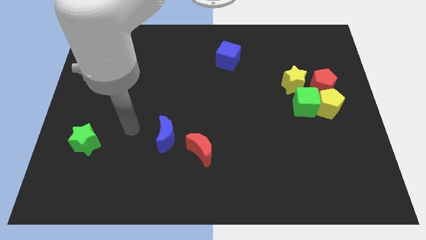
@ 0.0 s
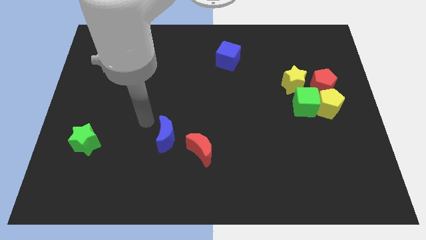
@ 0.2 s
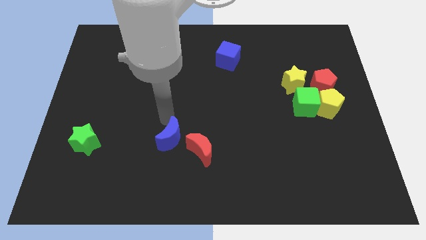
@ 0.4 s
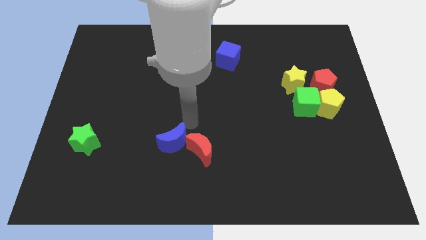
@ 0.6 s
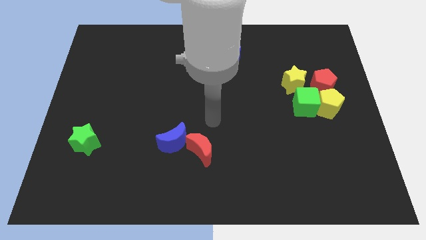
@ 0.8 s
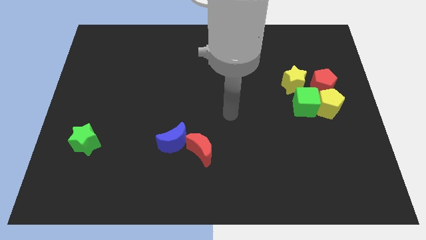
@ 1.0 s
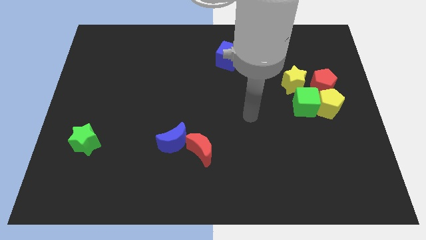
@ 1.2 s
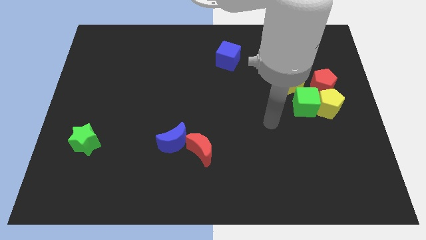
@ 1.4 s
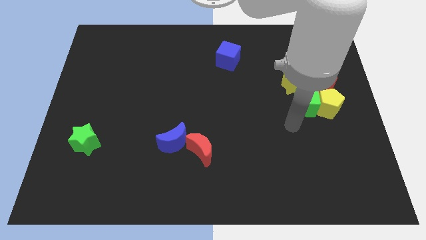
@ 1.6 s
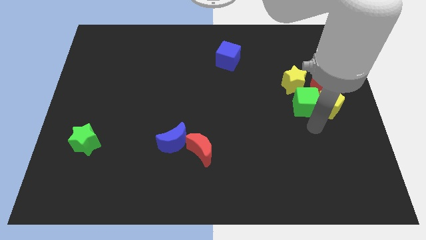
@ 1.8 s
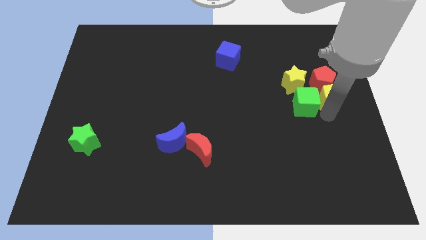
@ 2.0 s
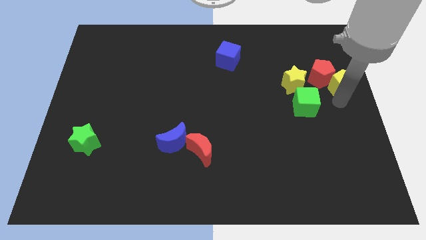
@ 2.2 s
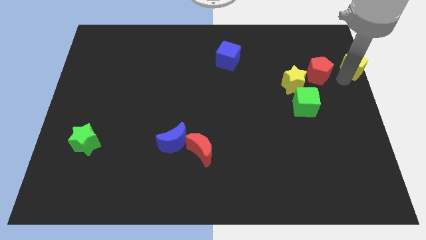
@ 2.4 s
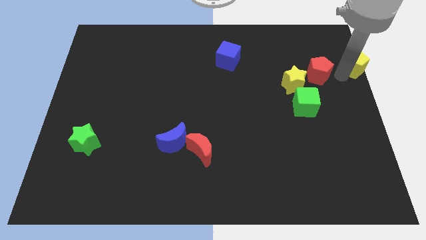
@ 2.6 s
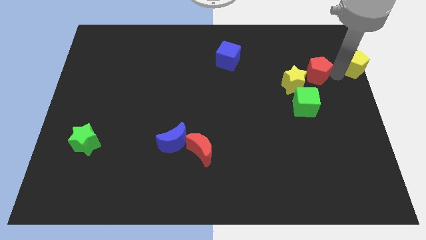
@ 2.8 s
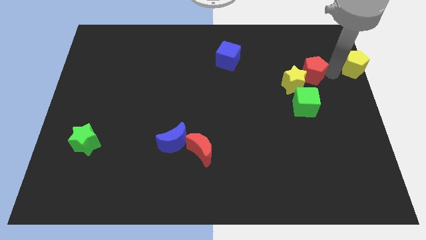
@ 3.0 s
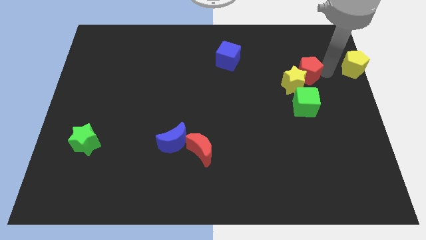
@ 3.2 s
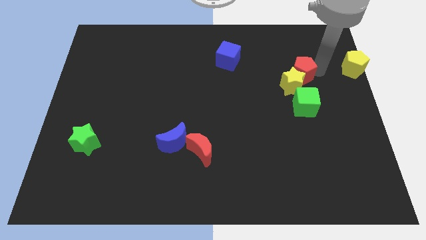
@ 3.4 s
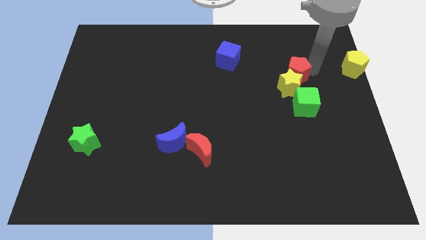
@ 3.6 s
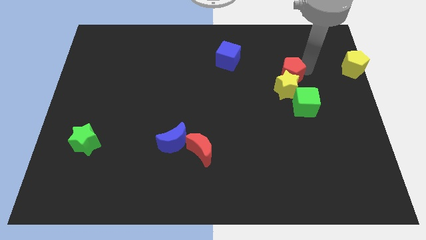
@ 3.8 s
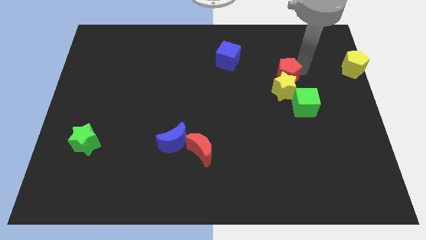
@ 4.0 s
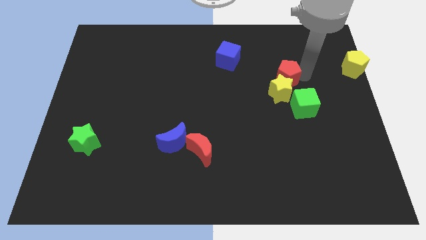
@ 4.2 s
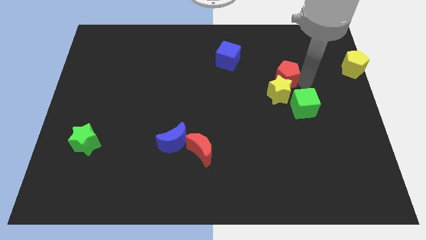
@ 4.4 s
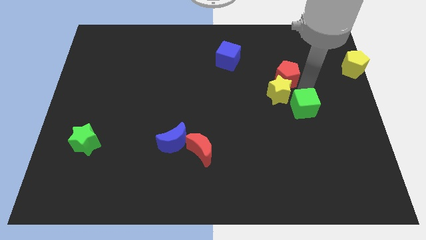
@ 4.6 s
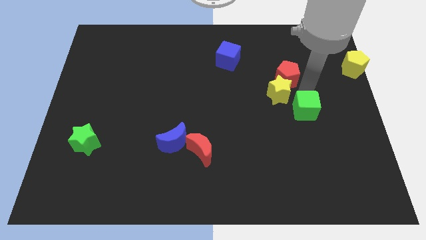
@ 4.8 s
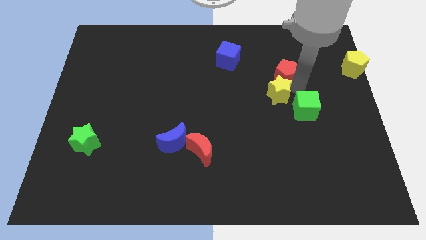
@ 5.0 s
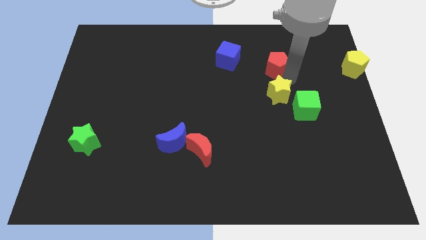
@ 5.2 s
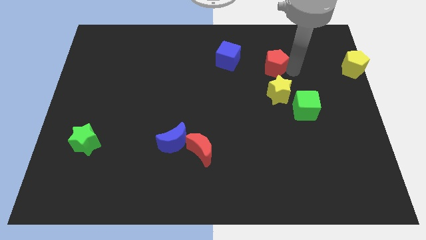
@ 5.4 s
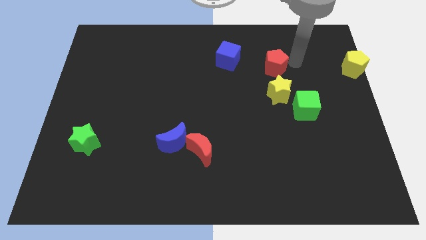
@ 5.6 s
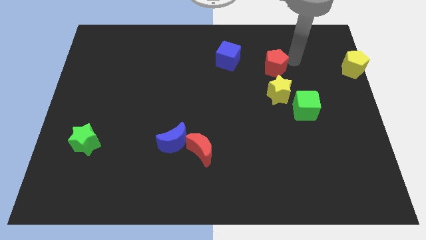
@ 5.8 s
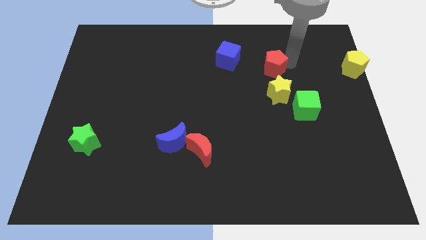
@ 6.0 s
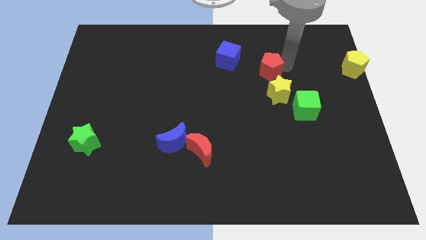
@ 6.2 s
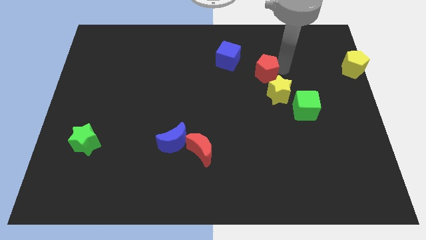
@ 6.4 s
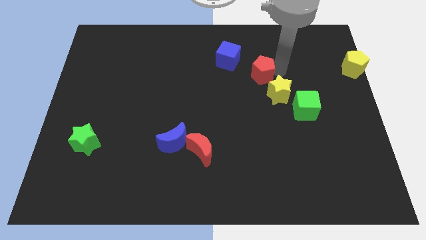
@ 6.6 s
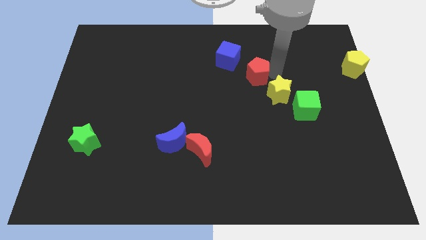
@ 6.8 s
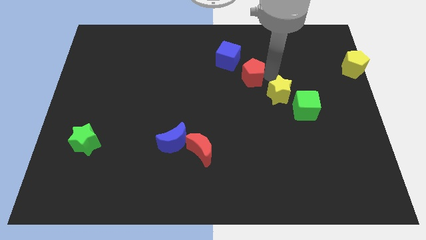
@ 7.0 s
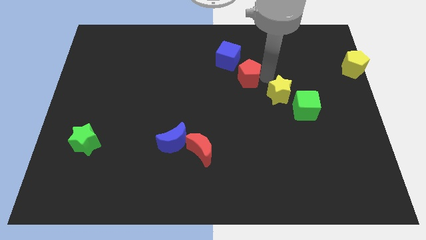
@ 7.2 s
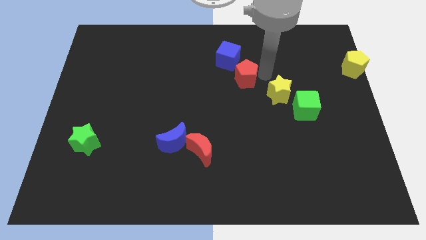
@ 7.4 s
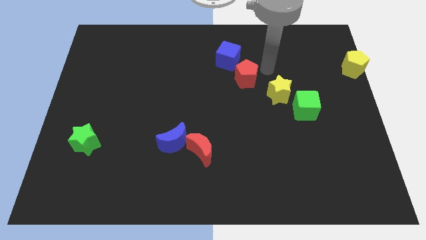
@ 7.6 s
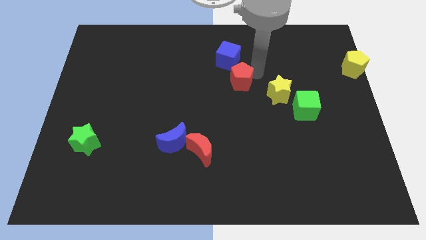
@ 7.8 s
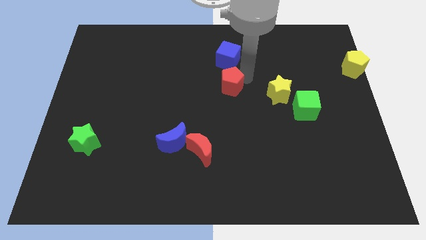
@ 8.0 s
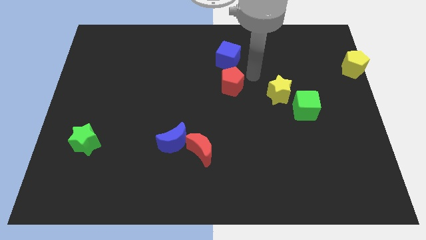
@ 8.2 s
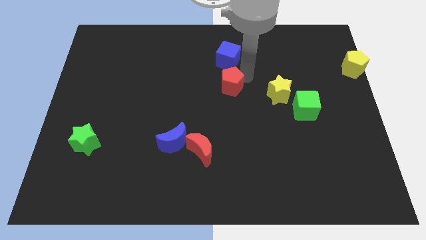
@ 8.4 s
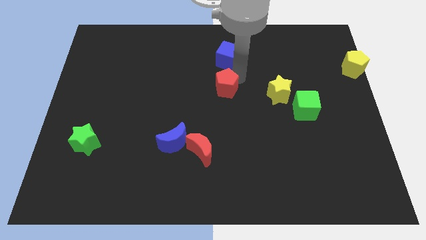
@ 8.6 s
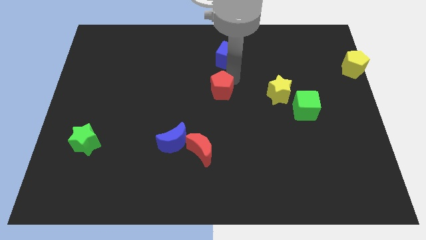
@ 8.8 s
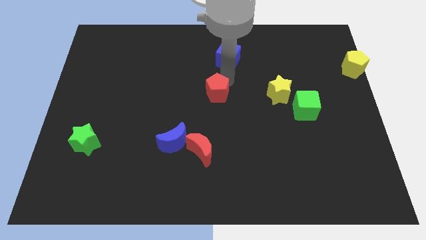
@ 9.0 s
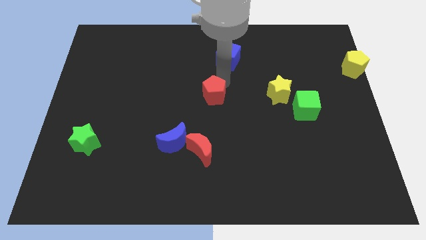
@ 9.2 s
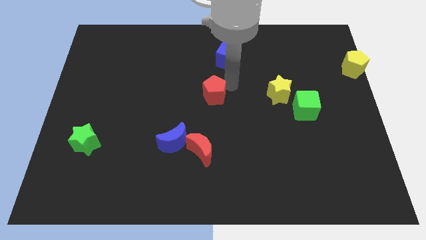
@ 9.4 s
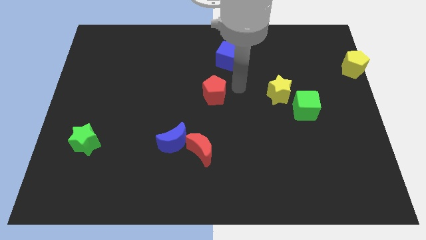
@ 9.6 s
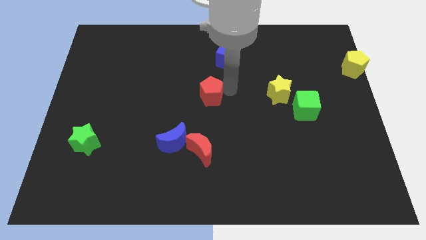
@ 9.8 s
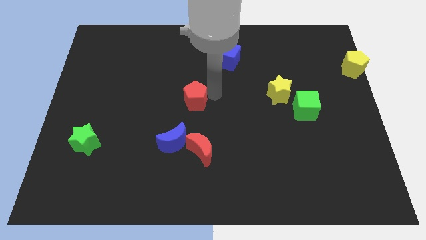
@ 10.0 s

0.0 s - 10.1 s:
move the red pentagon above the blue moon

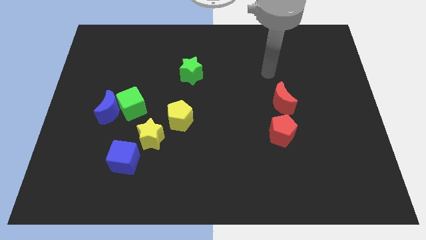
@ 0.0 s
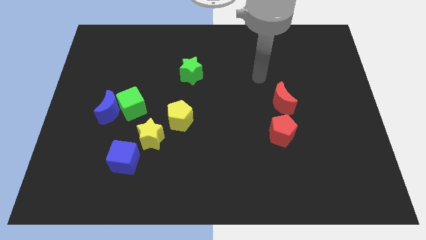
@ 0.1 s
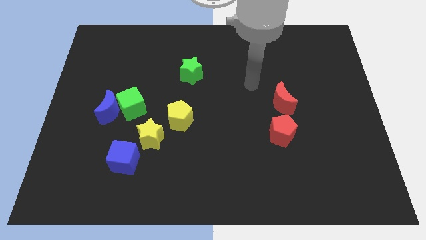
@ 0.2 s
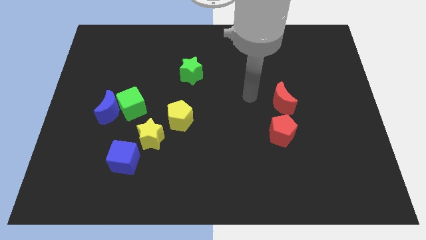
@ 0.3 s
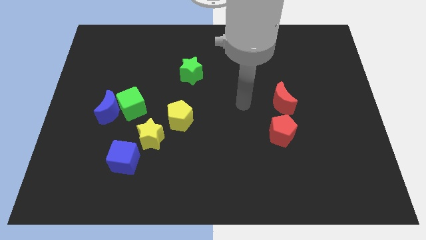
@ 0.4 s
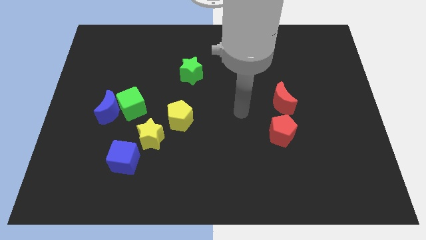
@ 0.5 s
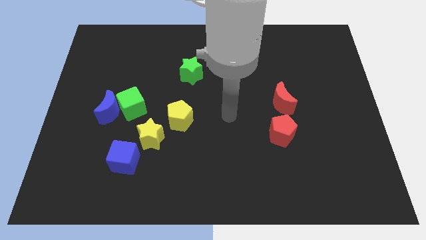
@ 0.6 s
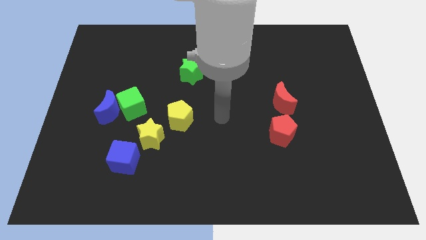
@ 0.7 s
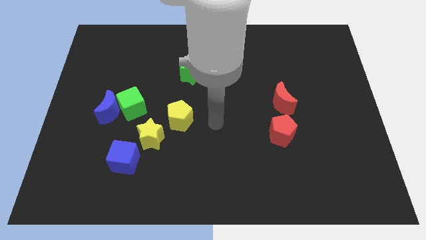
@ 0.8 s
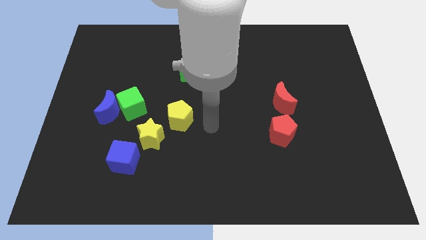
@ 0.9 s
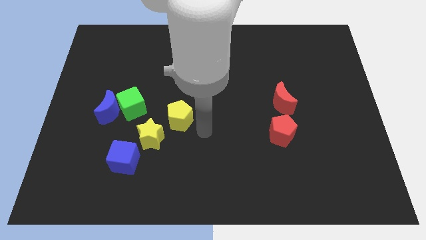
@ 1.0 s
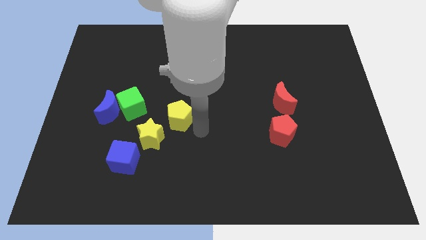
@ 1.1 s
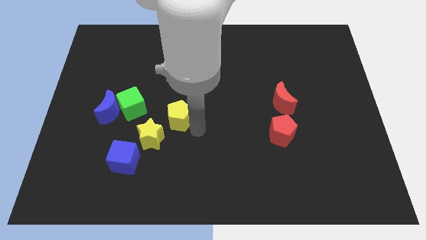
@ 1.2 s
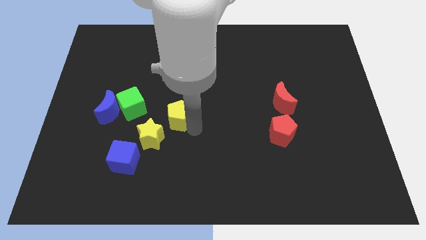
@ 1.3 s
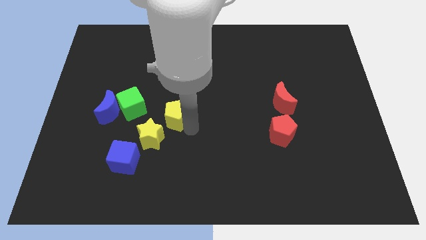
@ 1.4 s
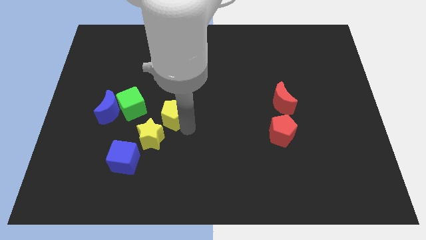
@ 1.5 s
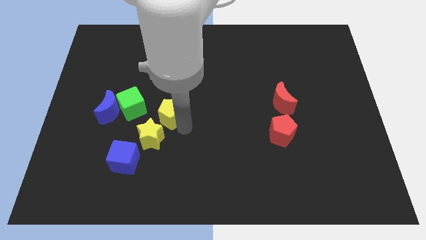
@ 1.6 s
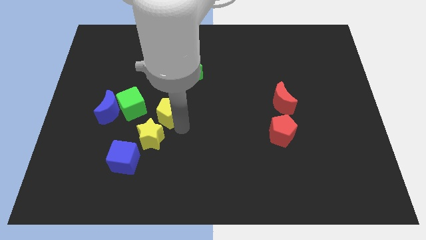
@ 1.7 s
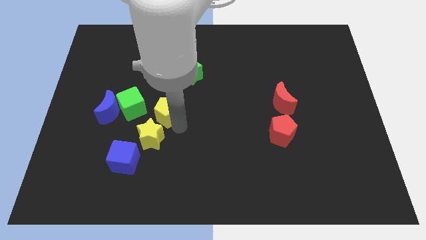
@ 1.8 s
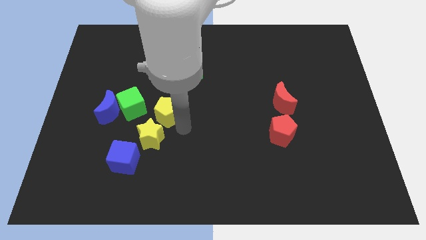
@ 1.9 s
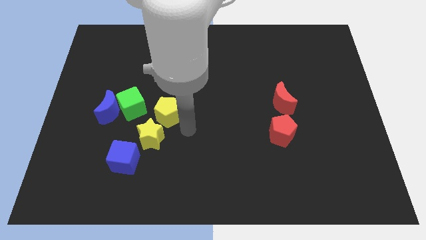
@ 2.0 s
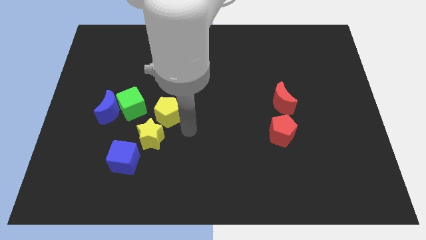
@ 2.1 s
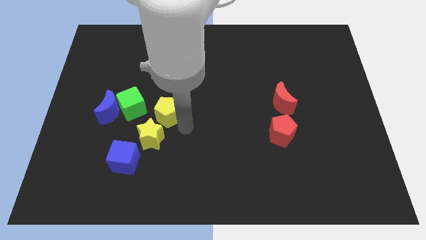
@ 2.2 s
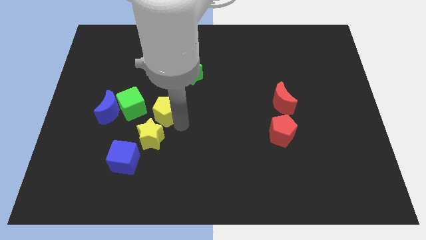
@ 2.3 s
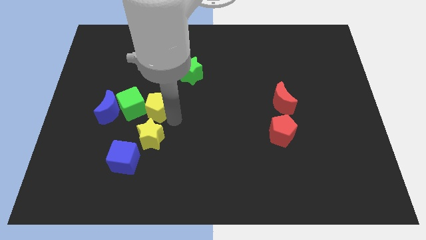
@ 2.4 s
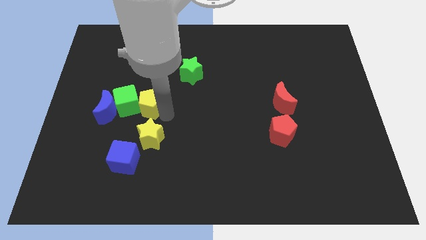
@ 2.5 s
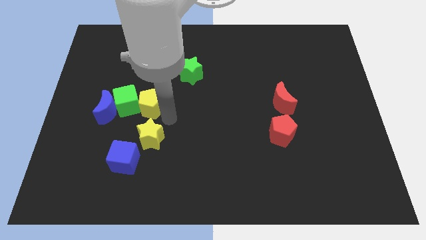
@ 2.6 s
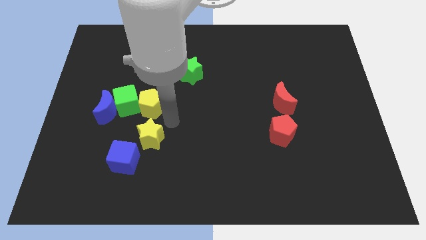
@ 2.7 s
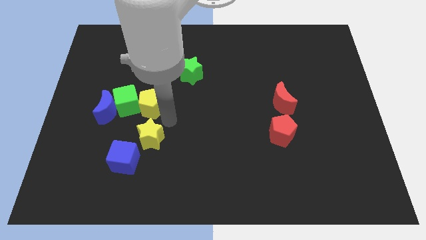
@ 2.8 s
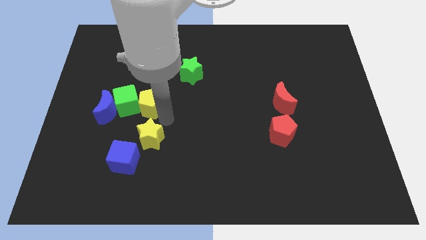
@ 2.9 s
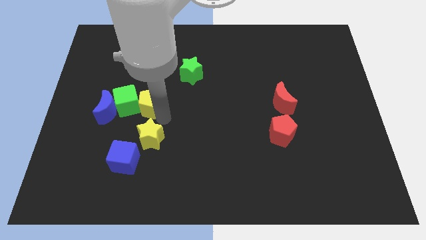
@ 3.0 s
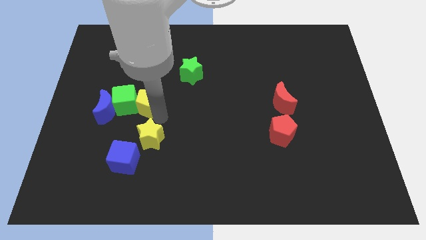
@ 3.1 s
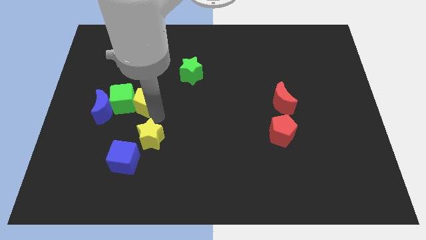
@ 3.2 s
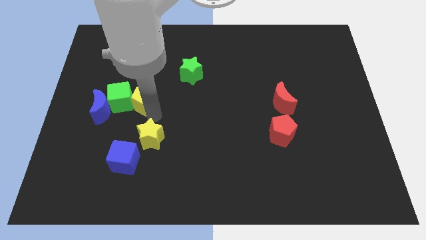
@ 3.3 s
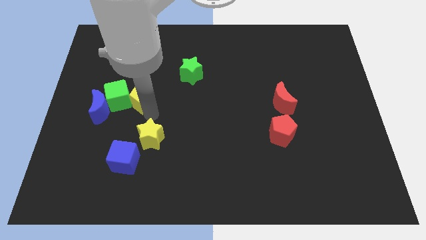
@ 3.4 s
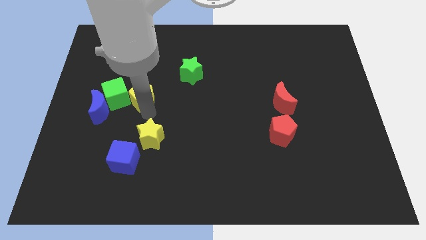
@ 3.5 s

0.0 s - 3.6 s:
push the yellow pentagon diagonally up and to the right of the blue moon
